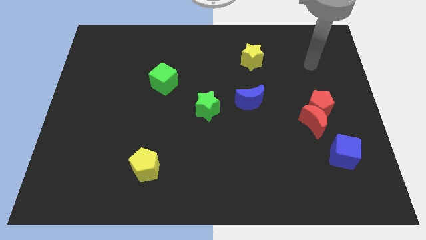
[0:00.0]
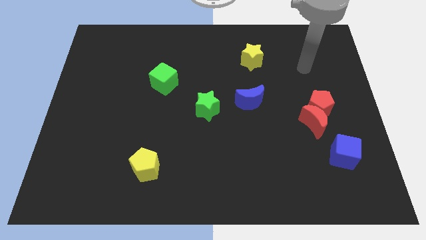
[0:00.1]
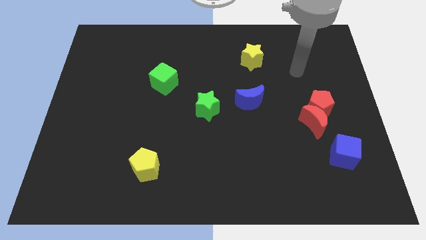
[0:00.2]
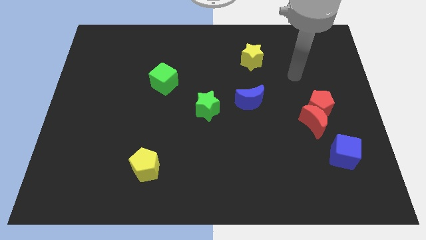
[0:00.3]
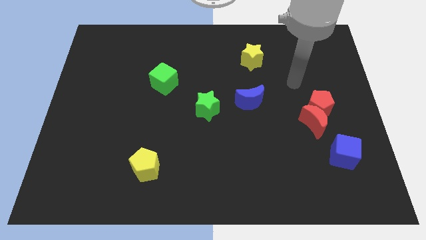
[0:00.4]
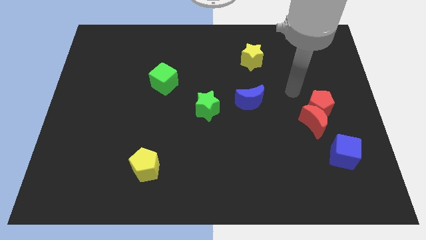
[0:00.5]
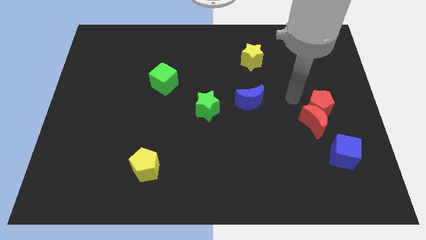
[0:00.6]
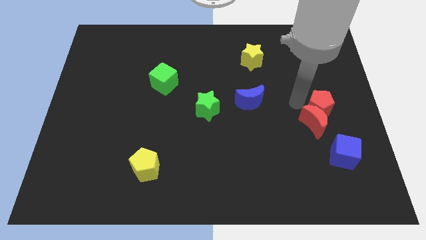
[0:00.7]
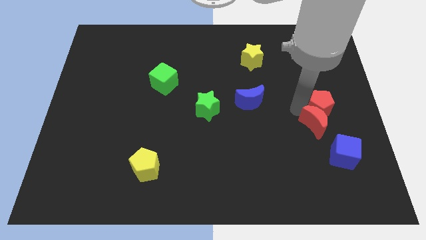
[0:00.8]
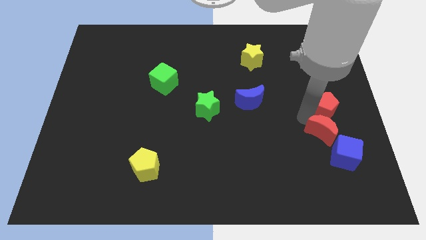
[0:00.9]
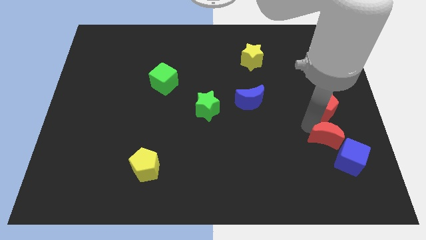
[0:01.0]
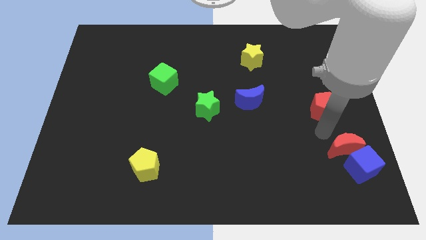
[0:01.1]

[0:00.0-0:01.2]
pull the red pentagon apart from the red moon

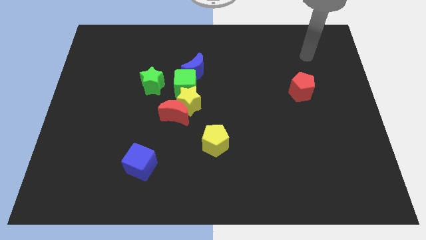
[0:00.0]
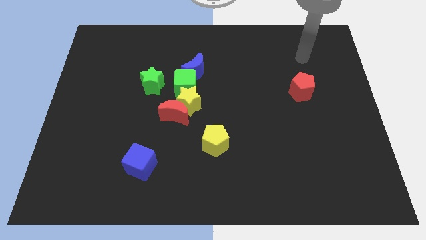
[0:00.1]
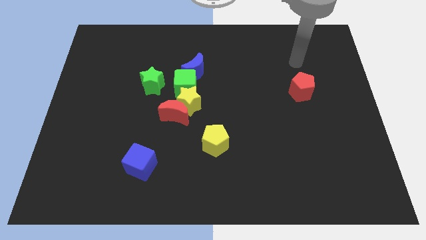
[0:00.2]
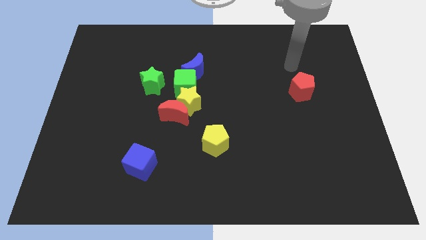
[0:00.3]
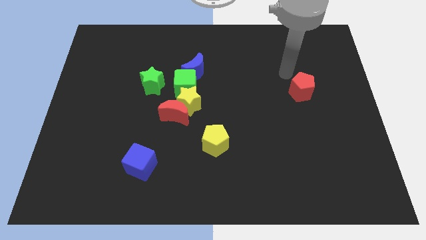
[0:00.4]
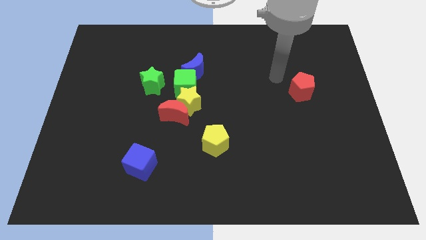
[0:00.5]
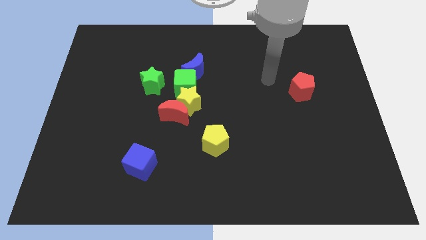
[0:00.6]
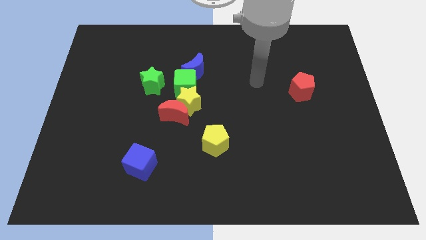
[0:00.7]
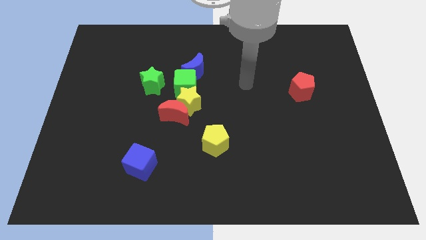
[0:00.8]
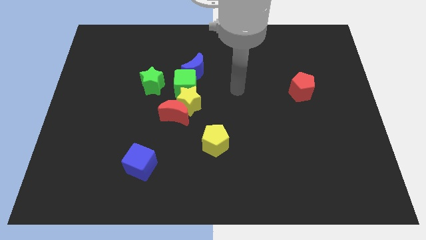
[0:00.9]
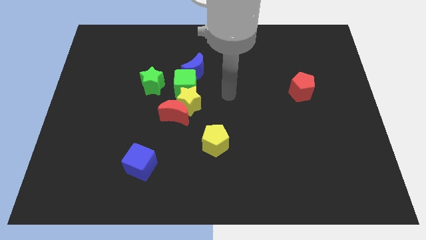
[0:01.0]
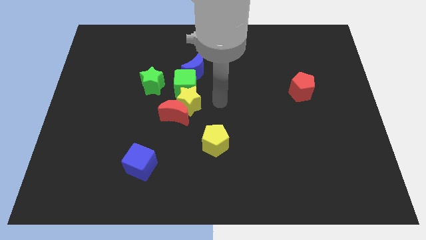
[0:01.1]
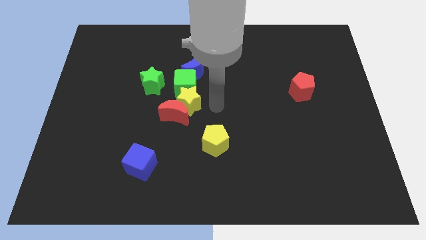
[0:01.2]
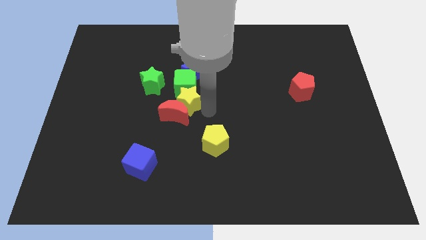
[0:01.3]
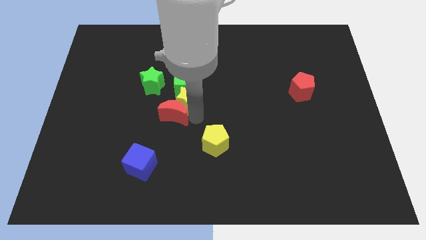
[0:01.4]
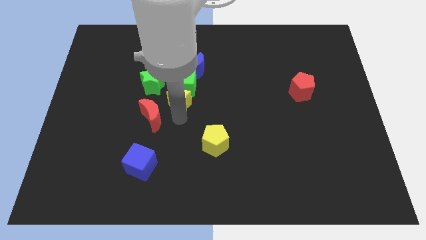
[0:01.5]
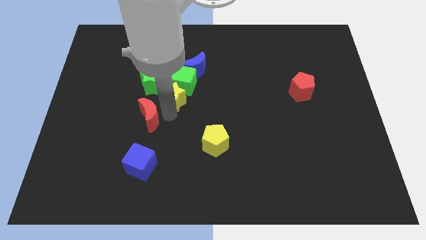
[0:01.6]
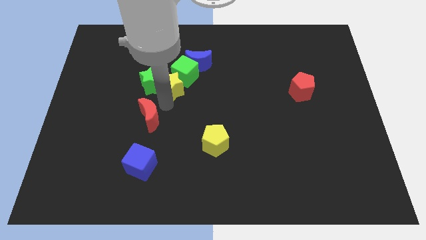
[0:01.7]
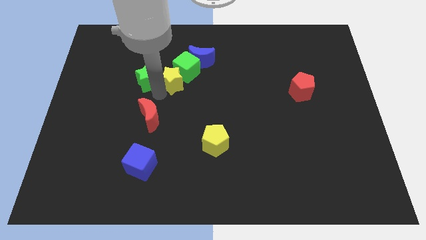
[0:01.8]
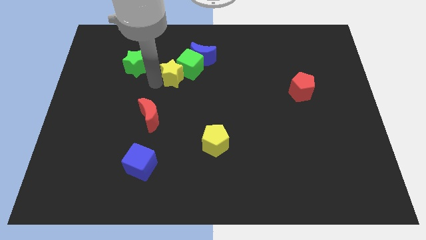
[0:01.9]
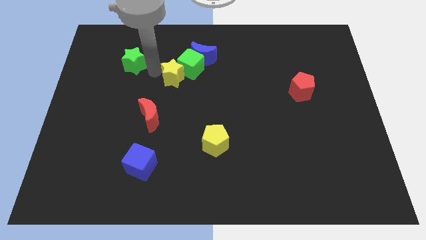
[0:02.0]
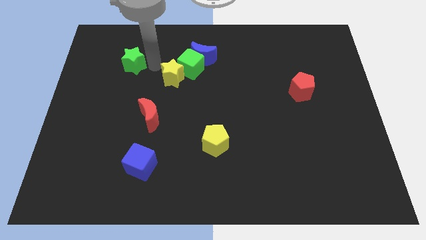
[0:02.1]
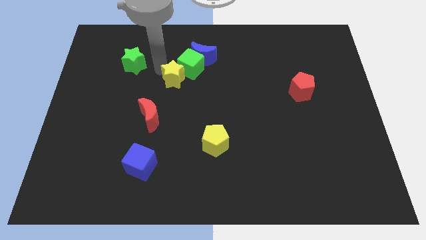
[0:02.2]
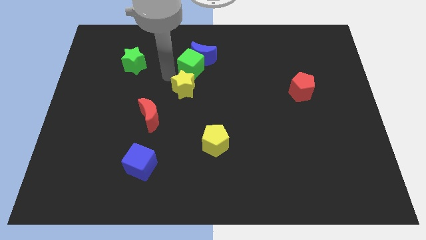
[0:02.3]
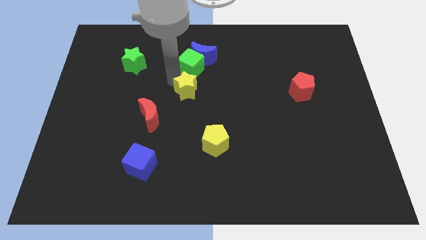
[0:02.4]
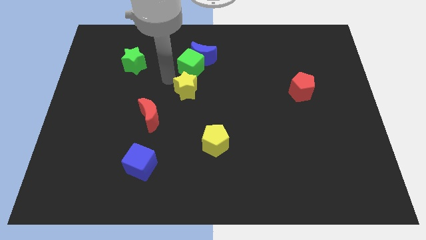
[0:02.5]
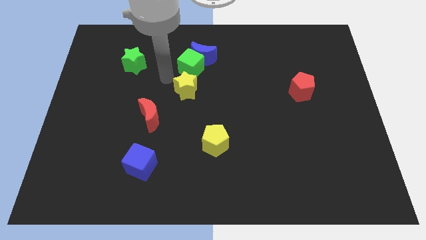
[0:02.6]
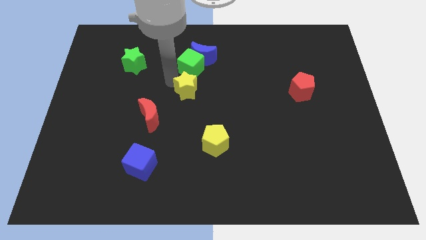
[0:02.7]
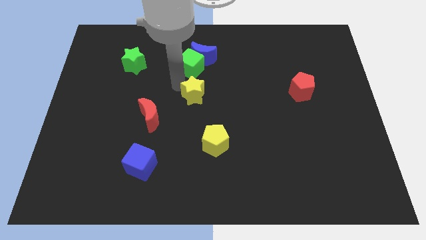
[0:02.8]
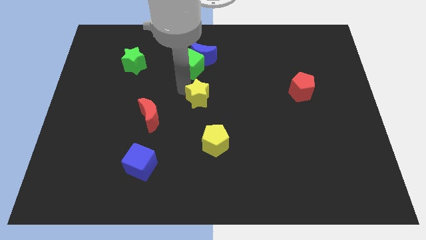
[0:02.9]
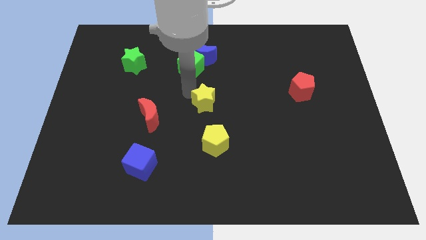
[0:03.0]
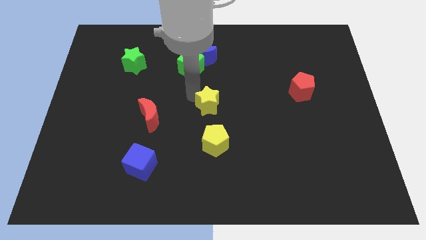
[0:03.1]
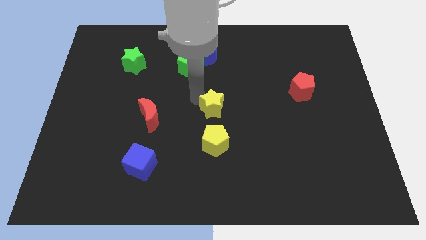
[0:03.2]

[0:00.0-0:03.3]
move the yellow star away from the red moon and green cube

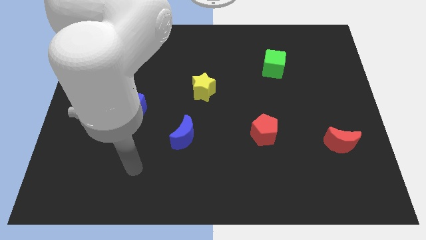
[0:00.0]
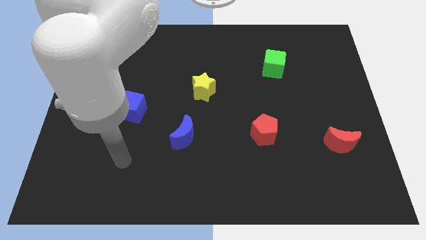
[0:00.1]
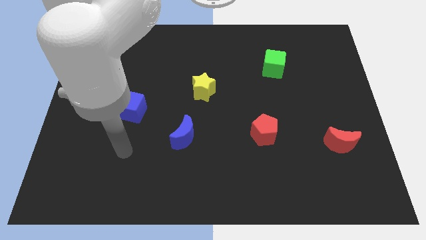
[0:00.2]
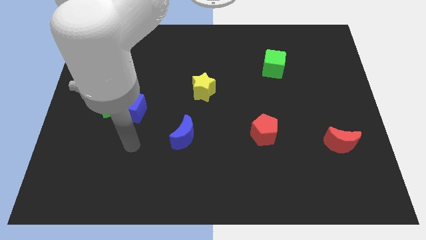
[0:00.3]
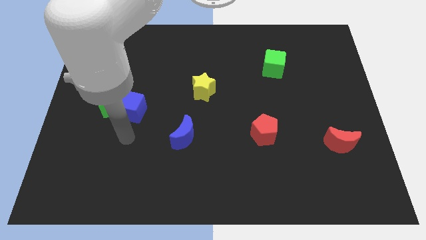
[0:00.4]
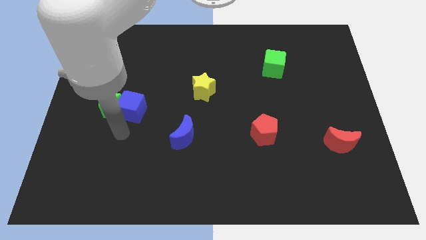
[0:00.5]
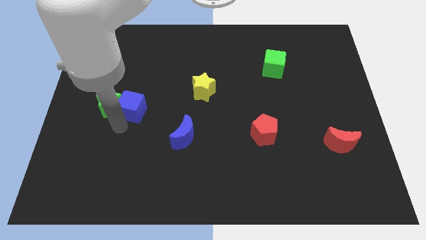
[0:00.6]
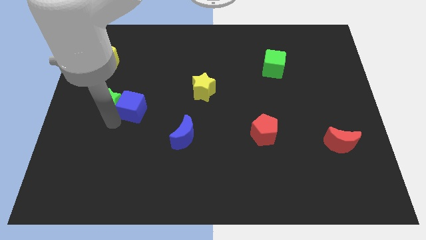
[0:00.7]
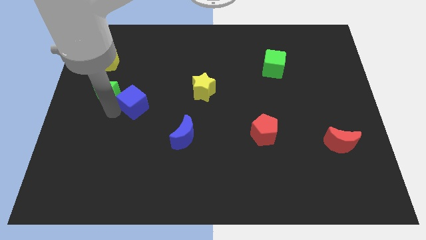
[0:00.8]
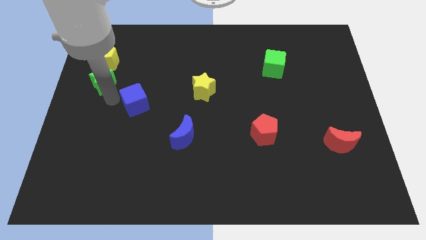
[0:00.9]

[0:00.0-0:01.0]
move the blue cube away from the green star

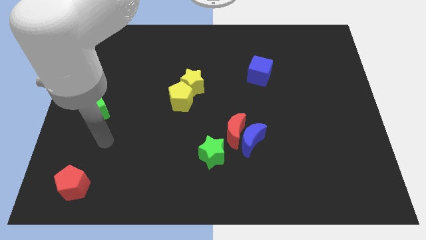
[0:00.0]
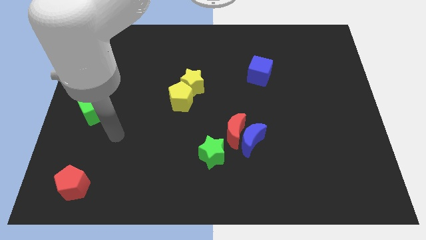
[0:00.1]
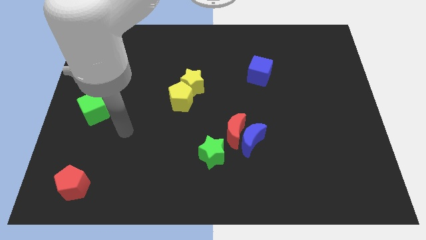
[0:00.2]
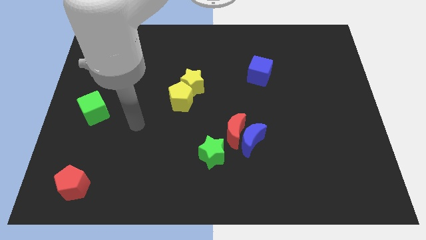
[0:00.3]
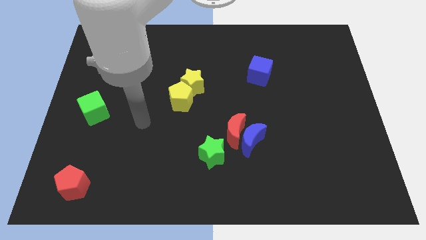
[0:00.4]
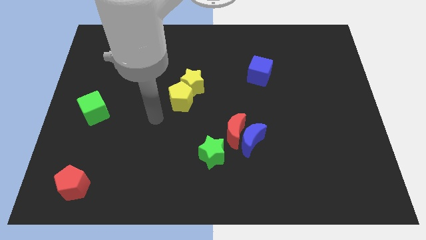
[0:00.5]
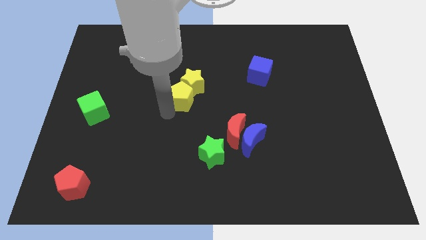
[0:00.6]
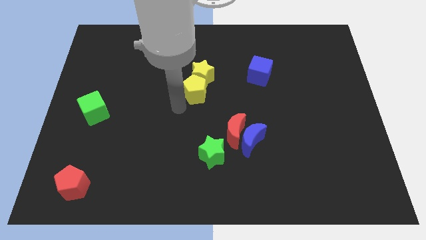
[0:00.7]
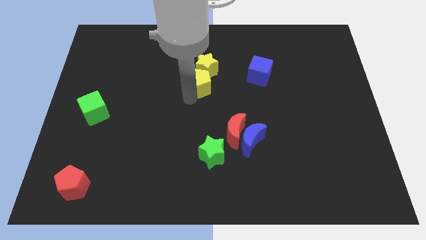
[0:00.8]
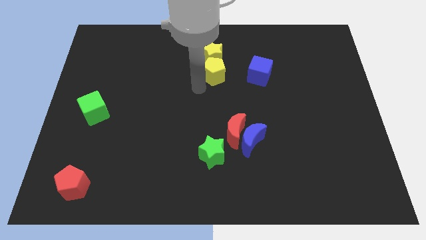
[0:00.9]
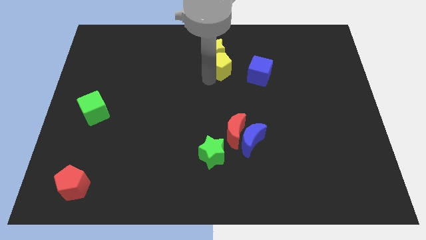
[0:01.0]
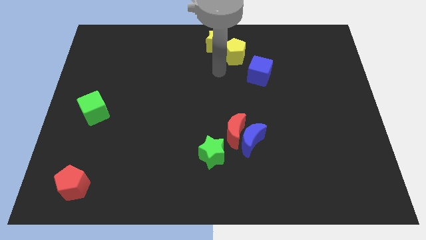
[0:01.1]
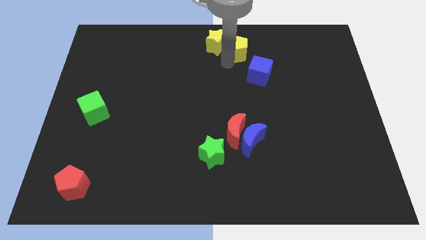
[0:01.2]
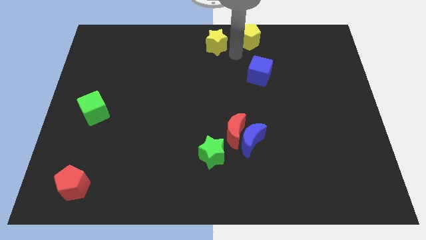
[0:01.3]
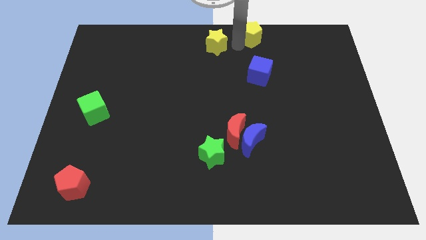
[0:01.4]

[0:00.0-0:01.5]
pull the yellow star apart from the yellow pentagon

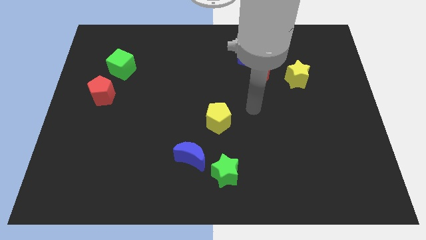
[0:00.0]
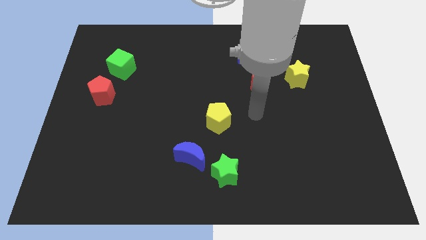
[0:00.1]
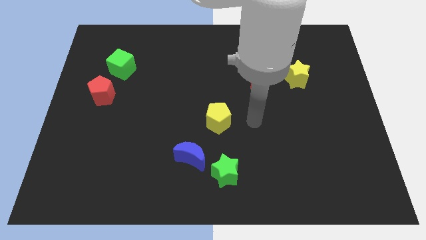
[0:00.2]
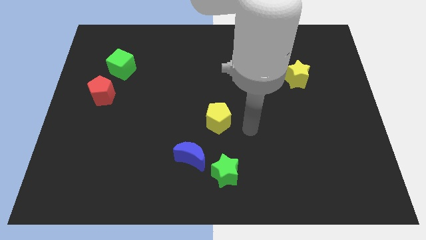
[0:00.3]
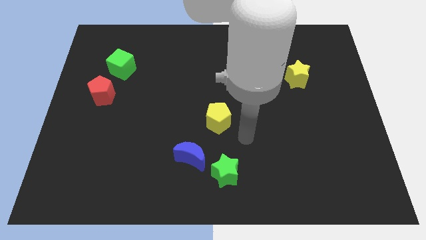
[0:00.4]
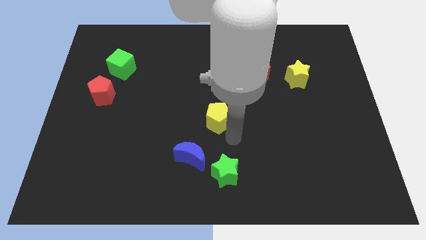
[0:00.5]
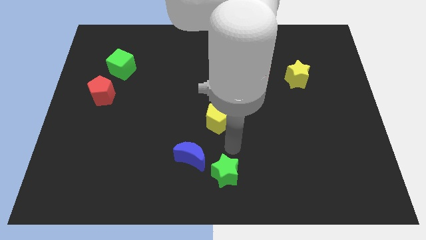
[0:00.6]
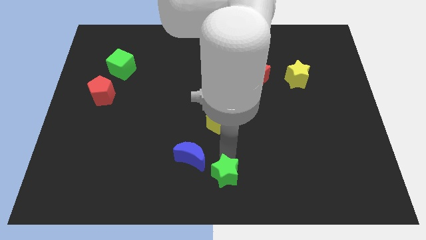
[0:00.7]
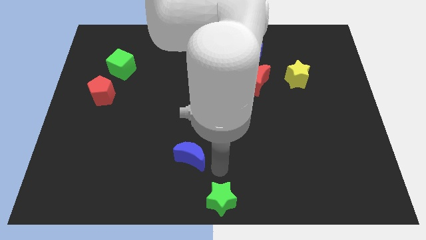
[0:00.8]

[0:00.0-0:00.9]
move the blue moon away from the green star

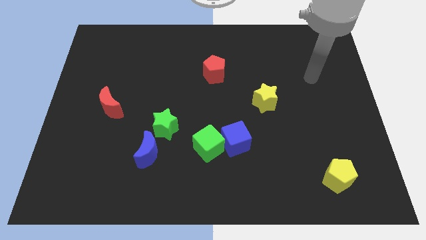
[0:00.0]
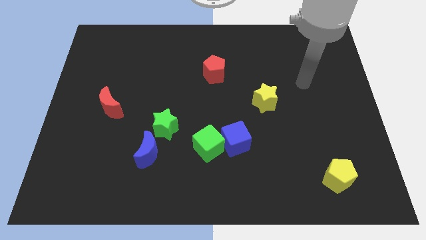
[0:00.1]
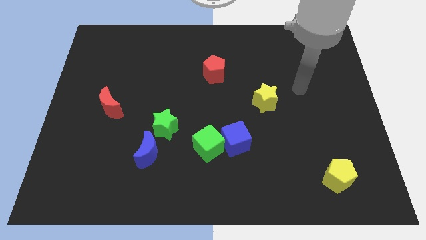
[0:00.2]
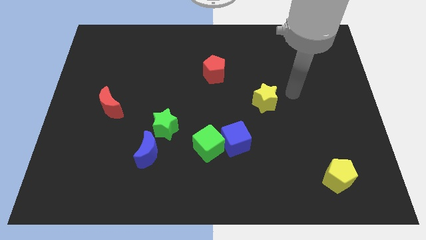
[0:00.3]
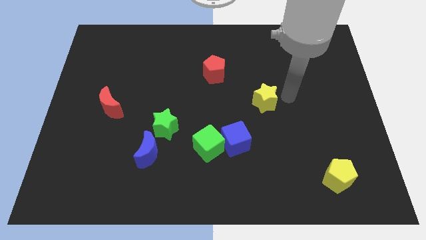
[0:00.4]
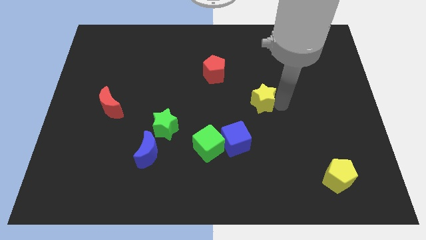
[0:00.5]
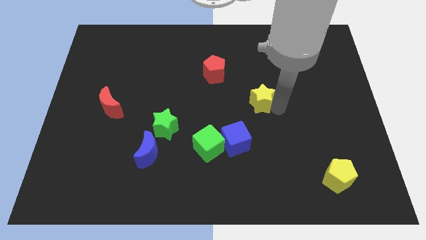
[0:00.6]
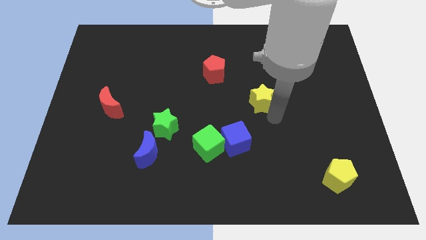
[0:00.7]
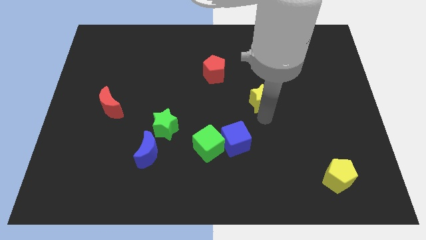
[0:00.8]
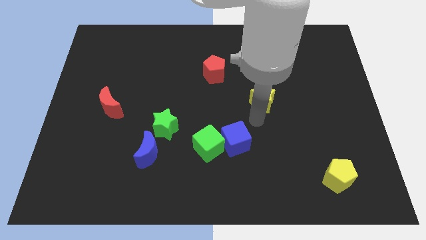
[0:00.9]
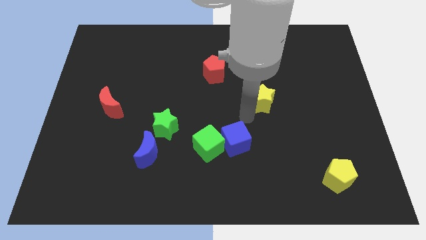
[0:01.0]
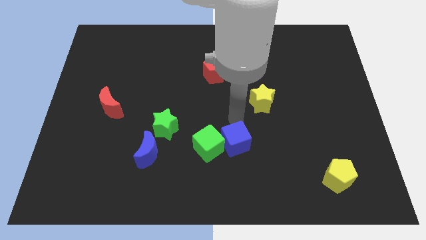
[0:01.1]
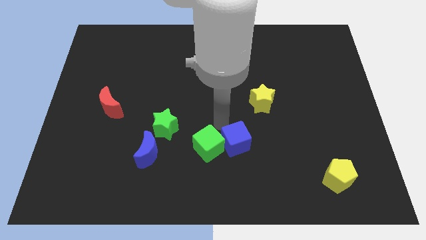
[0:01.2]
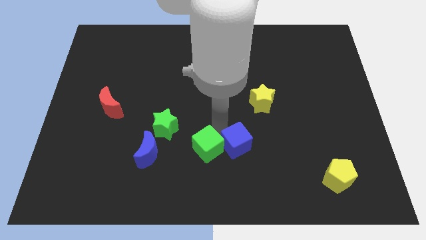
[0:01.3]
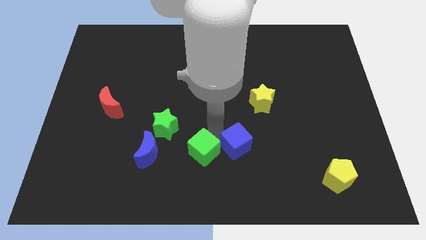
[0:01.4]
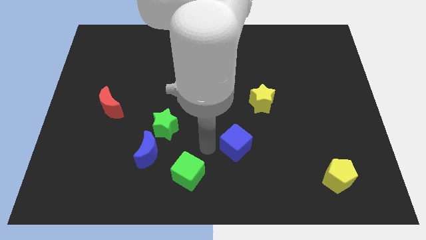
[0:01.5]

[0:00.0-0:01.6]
separate the blue cube from the green cube
